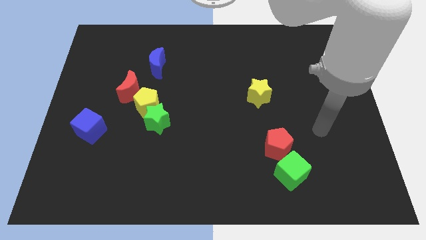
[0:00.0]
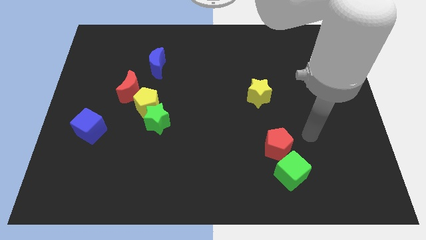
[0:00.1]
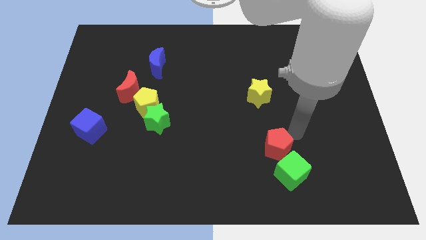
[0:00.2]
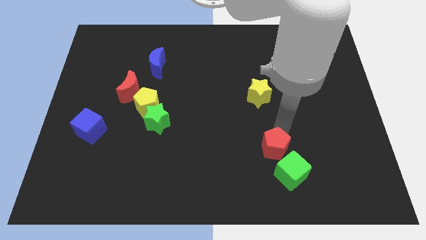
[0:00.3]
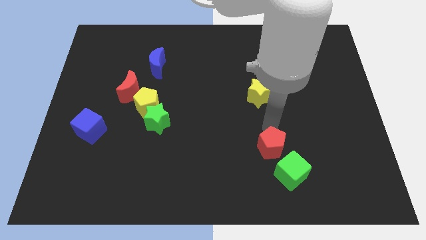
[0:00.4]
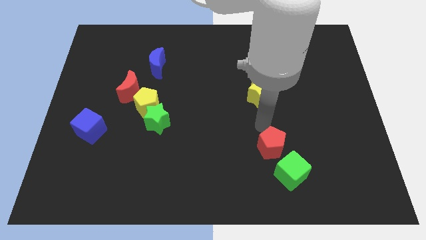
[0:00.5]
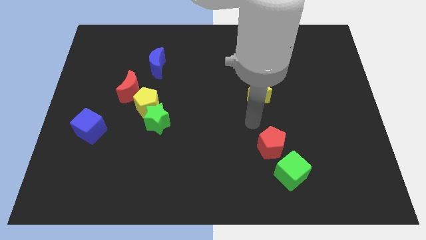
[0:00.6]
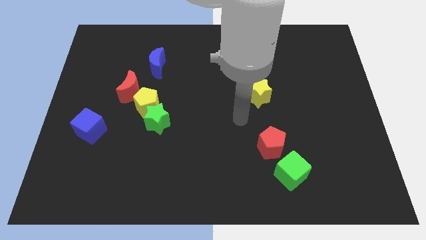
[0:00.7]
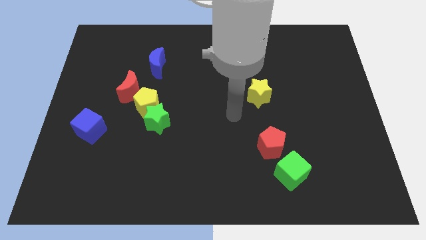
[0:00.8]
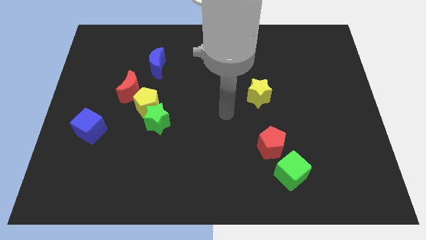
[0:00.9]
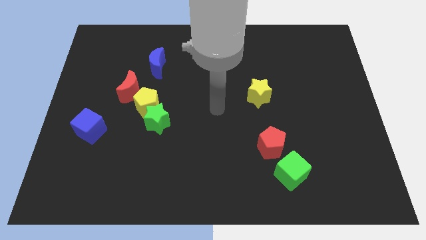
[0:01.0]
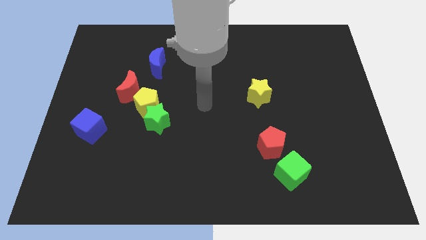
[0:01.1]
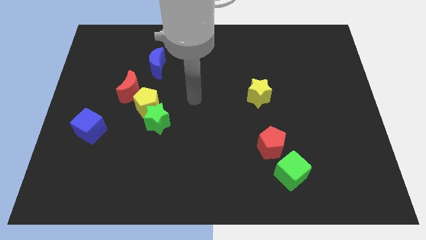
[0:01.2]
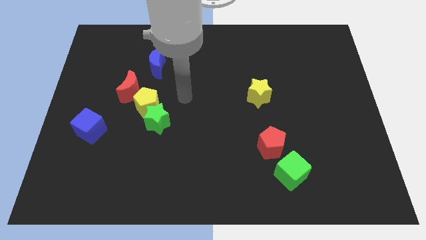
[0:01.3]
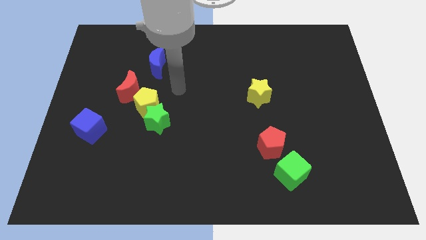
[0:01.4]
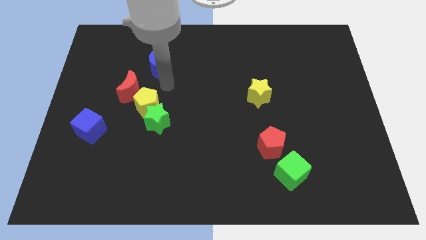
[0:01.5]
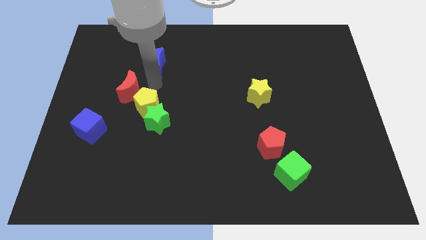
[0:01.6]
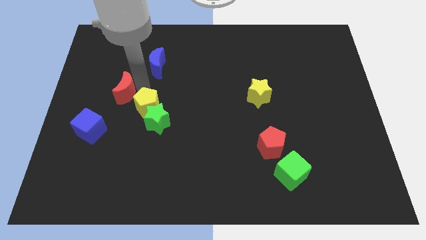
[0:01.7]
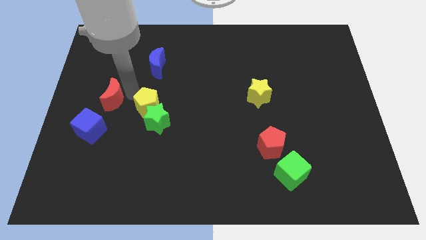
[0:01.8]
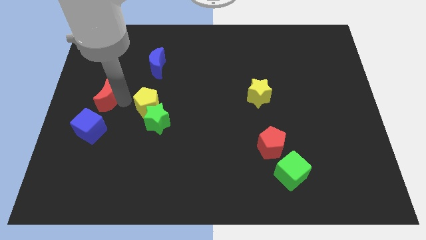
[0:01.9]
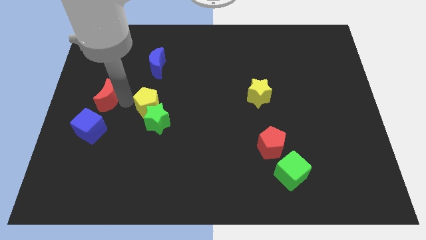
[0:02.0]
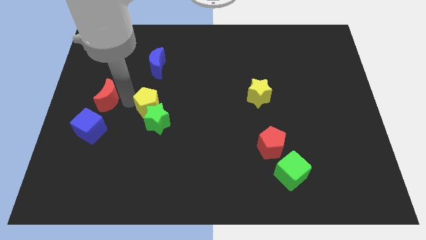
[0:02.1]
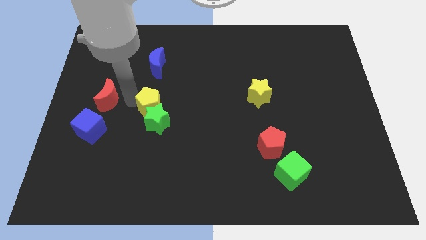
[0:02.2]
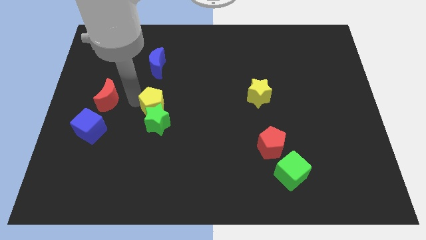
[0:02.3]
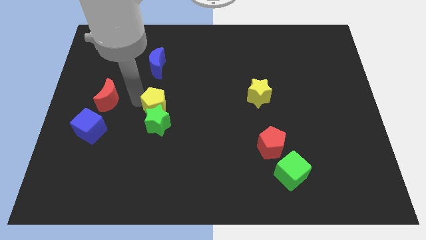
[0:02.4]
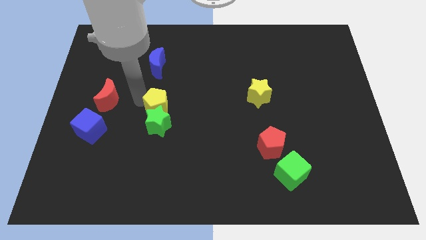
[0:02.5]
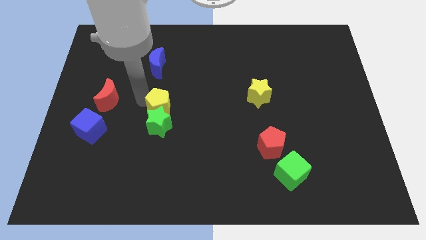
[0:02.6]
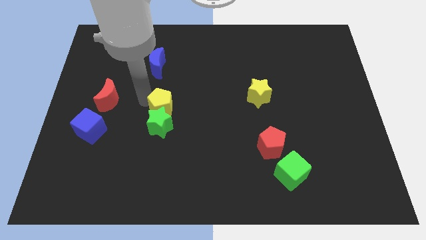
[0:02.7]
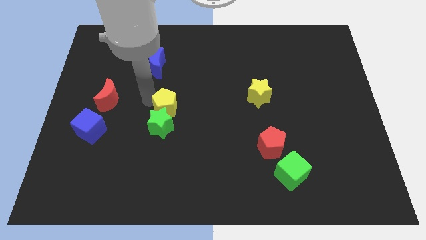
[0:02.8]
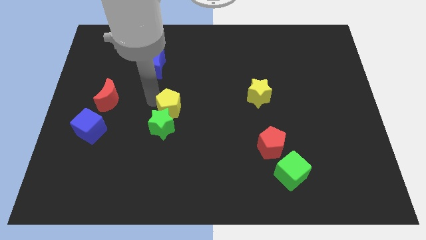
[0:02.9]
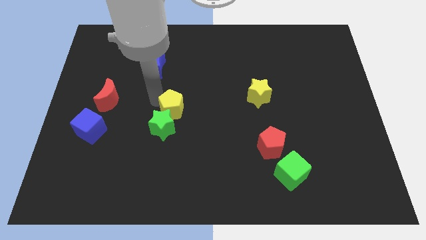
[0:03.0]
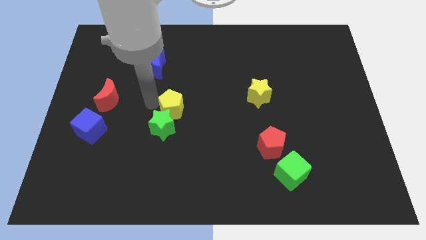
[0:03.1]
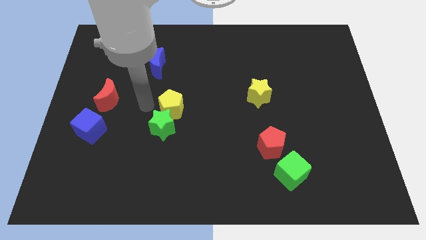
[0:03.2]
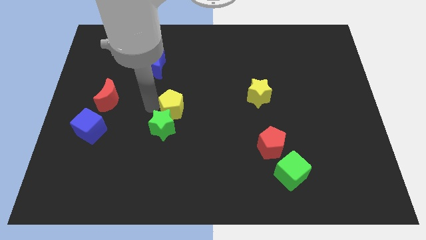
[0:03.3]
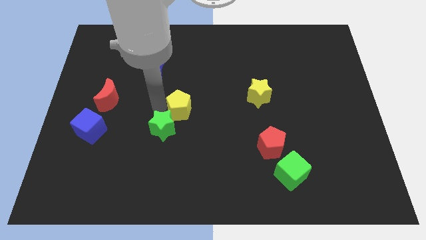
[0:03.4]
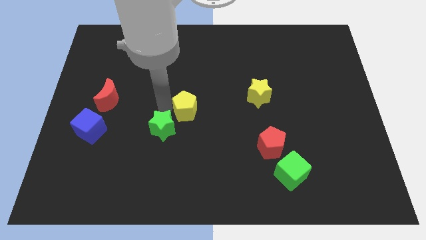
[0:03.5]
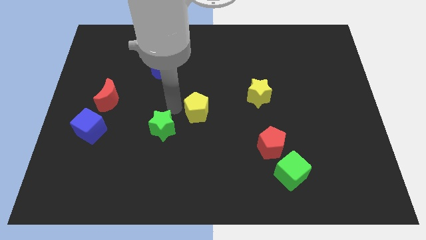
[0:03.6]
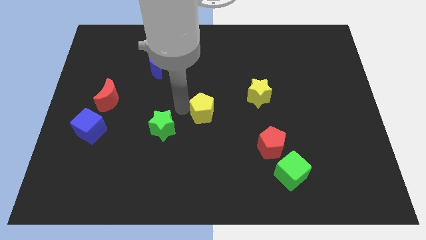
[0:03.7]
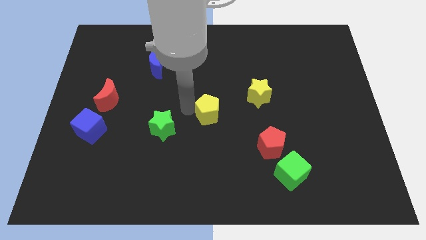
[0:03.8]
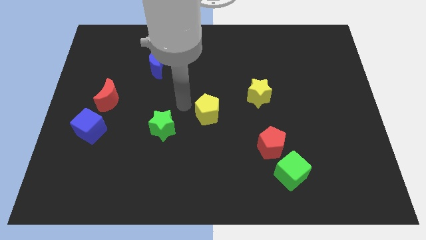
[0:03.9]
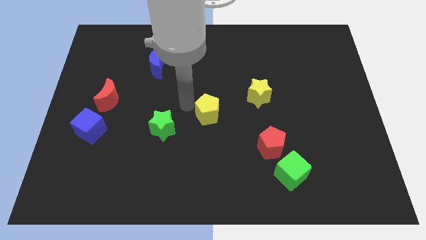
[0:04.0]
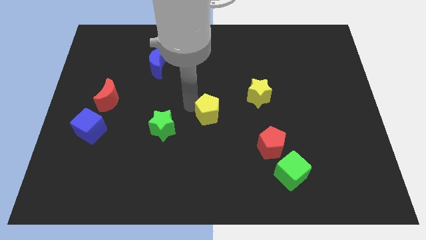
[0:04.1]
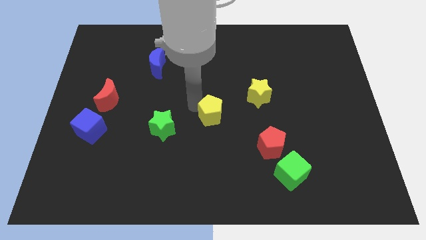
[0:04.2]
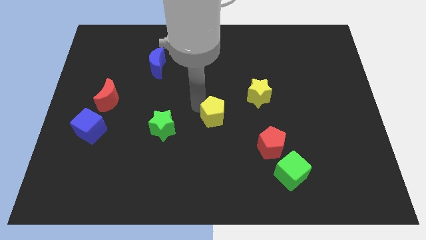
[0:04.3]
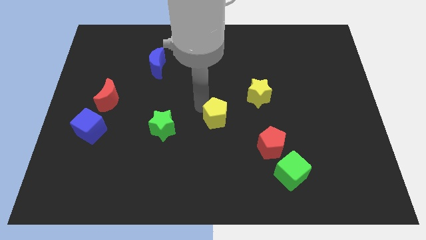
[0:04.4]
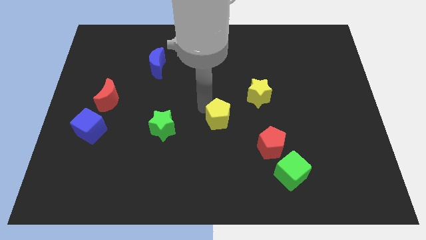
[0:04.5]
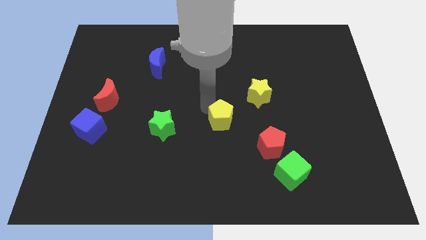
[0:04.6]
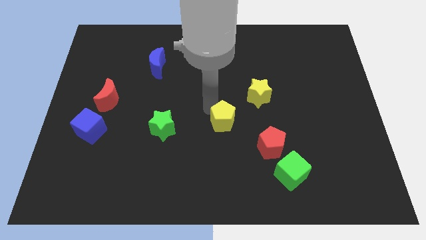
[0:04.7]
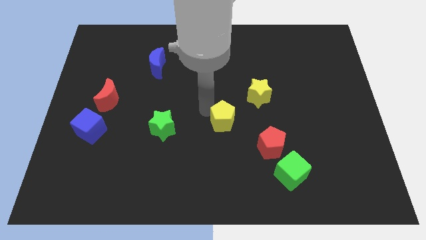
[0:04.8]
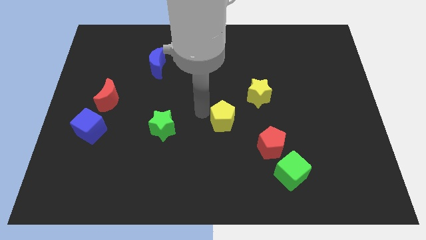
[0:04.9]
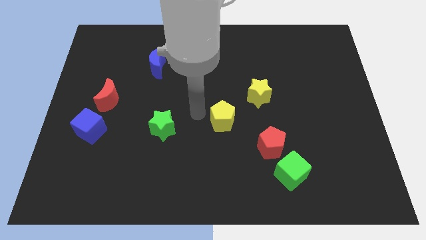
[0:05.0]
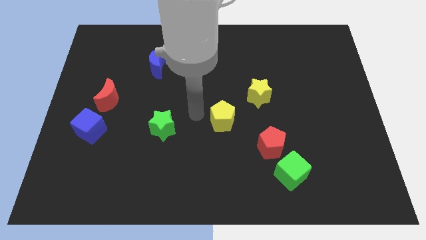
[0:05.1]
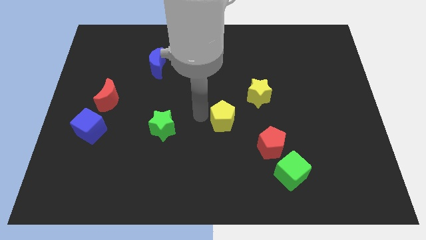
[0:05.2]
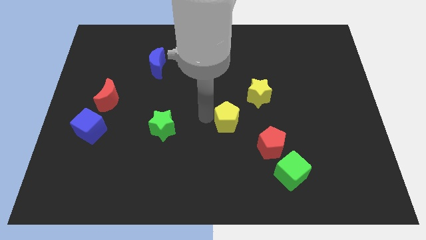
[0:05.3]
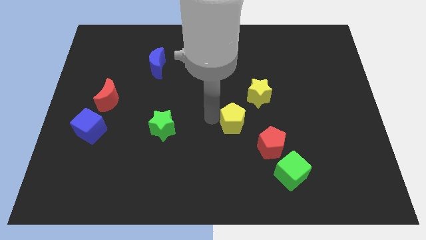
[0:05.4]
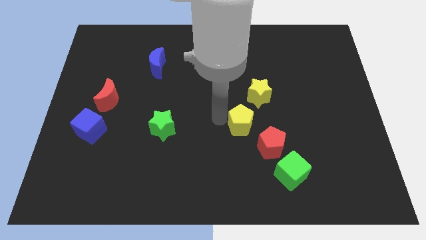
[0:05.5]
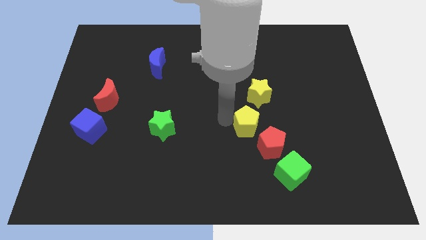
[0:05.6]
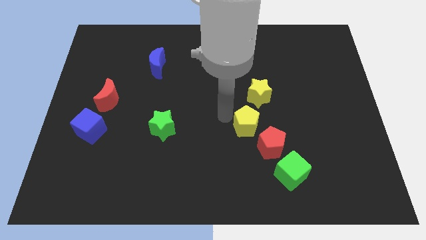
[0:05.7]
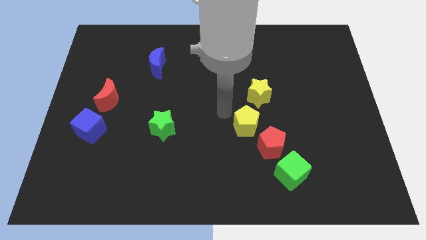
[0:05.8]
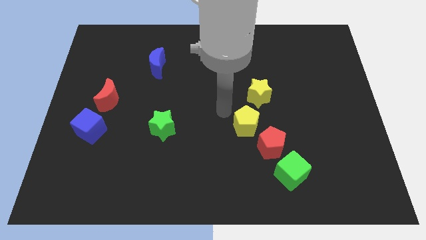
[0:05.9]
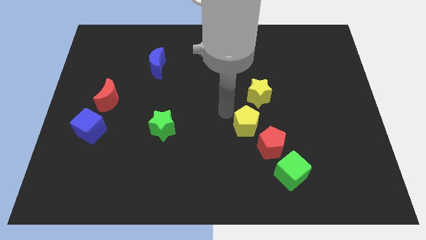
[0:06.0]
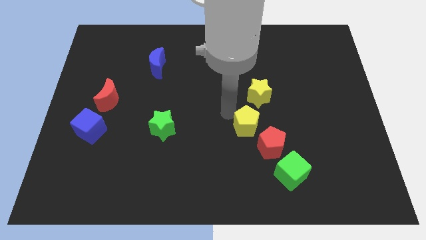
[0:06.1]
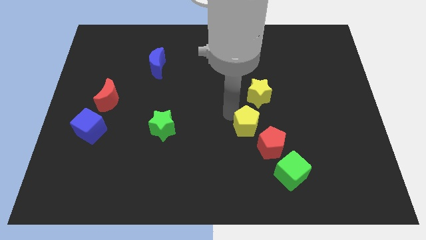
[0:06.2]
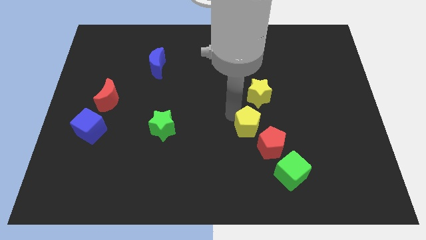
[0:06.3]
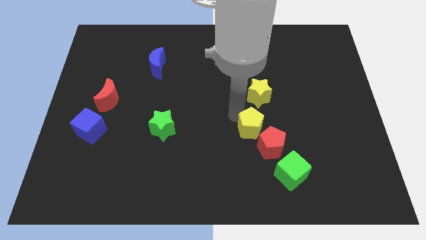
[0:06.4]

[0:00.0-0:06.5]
move the yellow pentagon close to the red pentagon

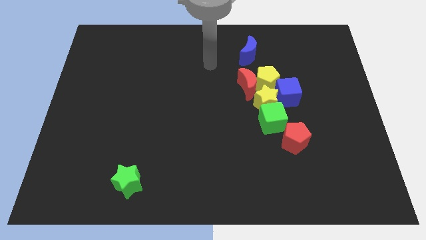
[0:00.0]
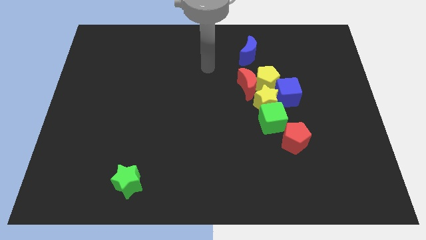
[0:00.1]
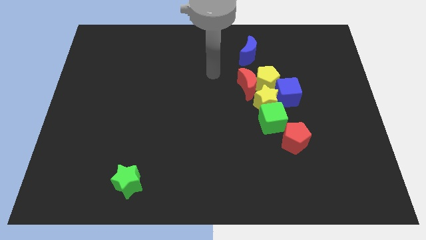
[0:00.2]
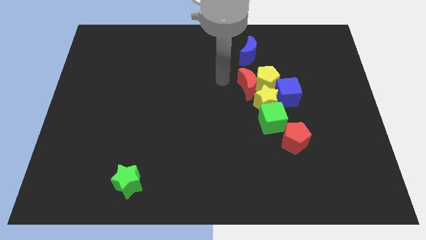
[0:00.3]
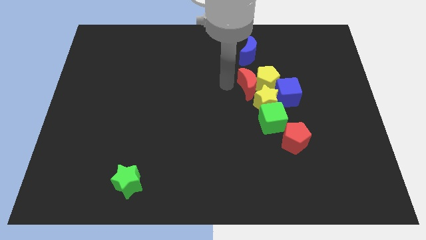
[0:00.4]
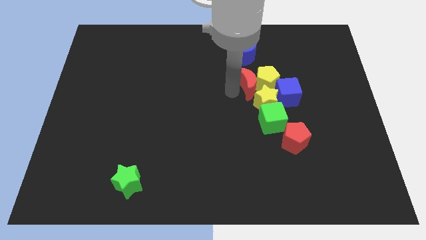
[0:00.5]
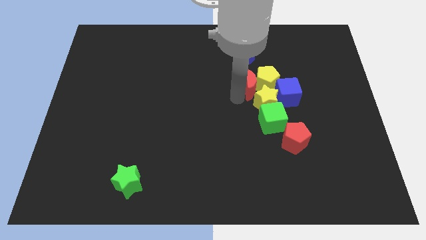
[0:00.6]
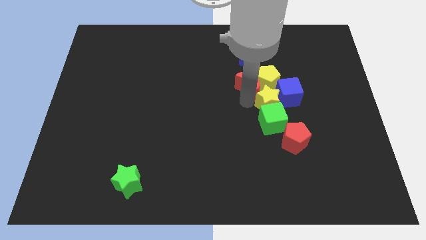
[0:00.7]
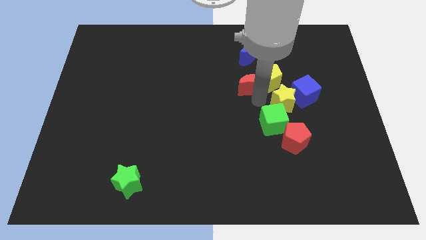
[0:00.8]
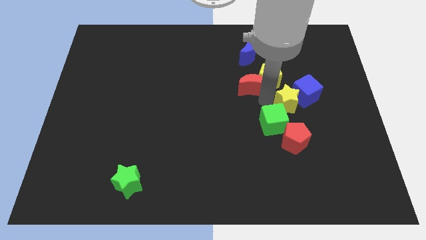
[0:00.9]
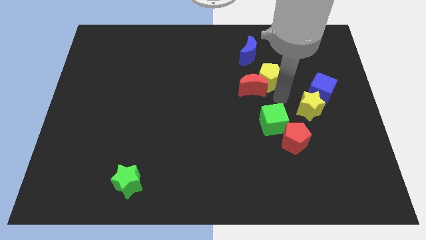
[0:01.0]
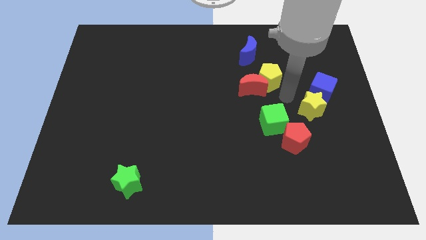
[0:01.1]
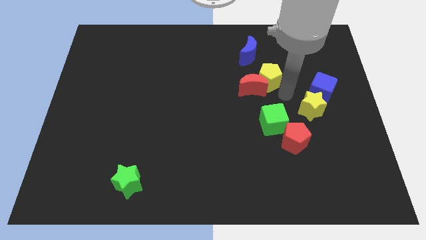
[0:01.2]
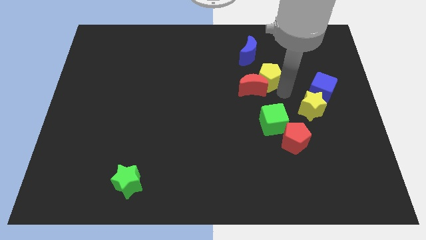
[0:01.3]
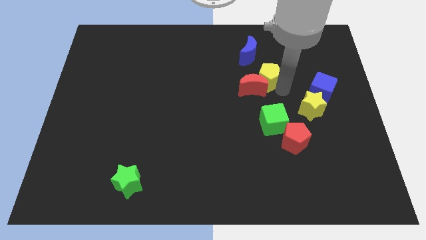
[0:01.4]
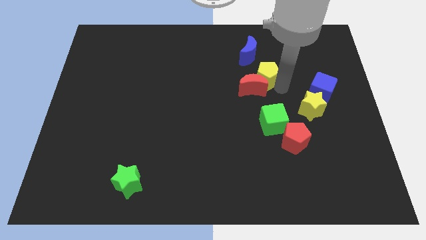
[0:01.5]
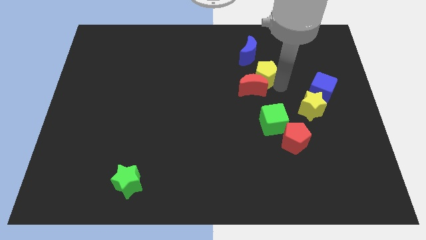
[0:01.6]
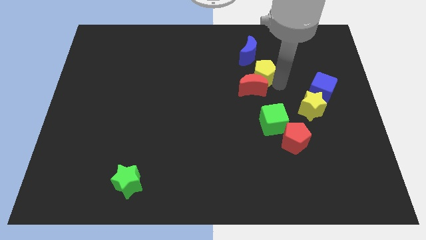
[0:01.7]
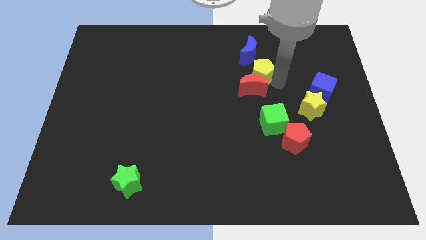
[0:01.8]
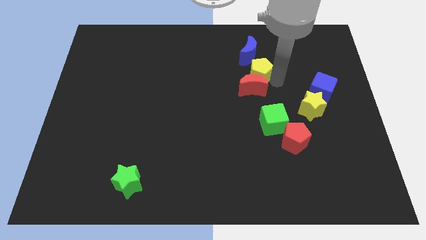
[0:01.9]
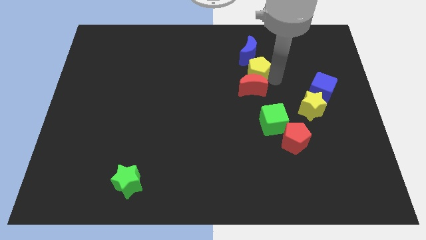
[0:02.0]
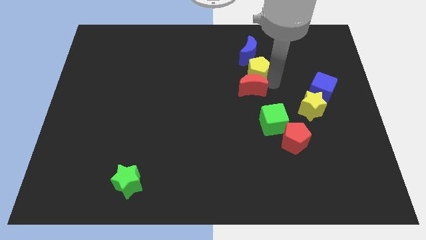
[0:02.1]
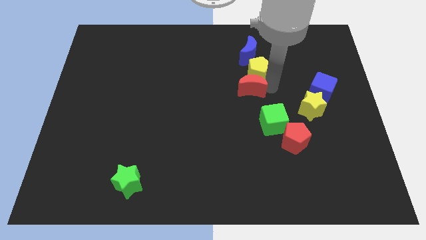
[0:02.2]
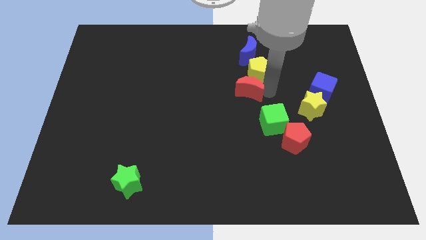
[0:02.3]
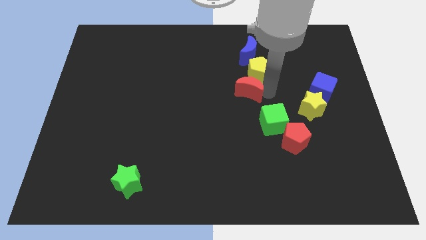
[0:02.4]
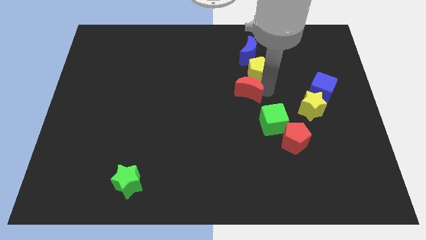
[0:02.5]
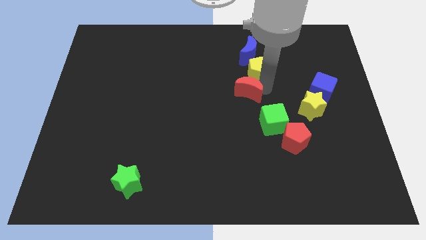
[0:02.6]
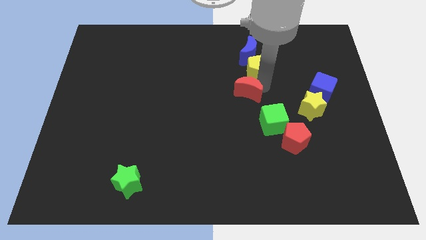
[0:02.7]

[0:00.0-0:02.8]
move the yellow pentagon to the blue moon
